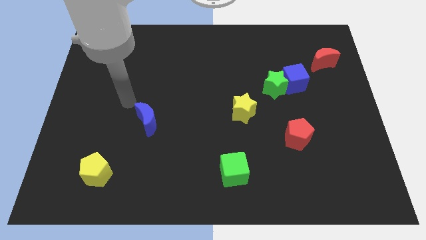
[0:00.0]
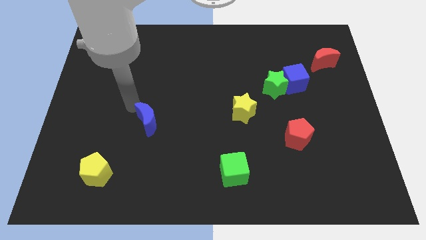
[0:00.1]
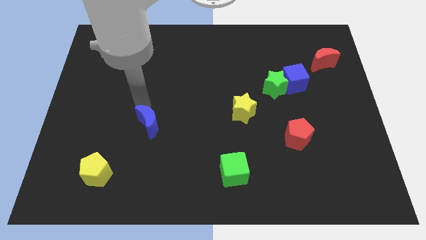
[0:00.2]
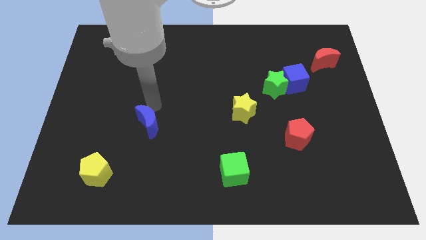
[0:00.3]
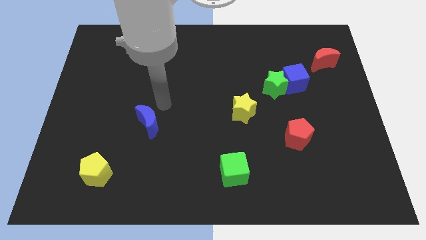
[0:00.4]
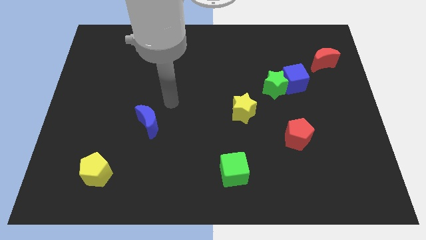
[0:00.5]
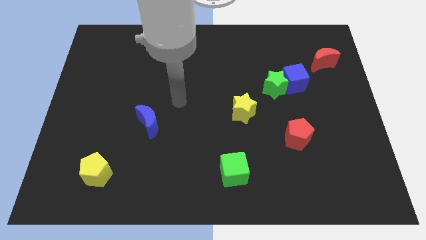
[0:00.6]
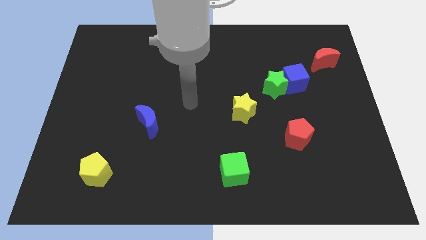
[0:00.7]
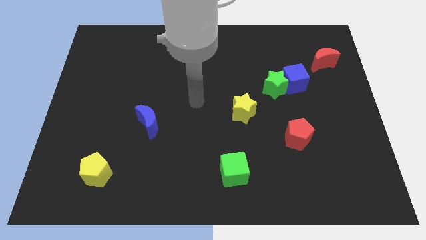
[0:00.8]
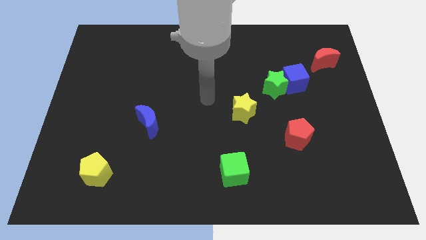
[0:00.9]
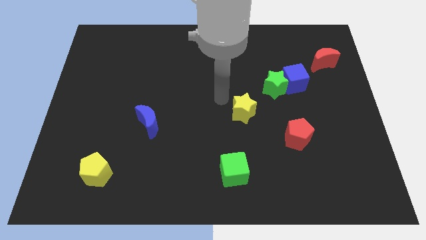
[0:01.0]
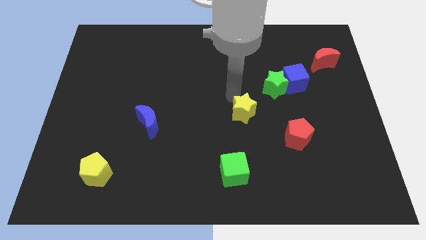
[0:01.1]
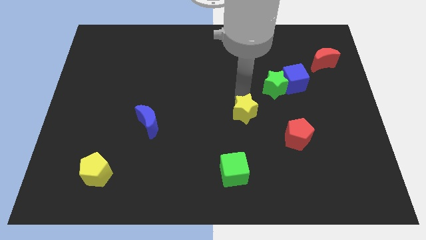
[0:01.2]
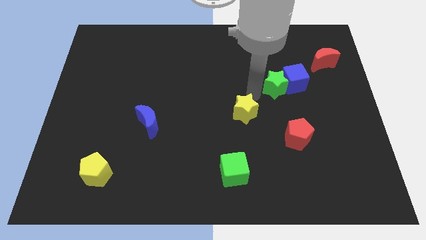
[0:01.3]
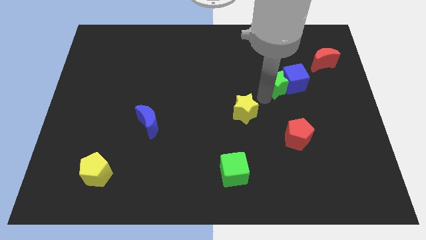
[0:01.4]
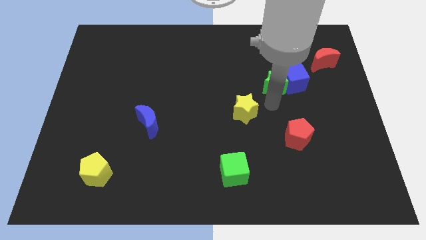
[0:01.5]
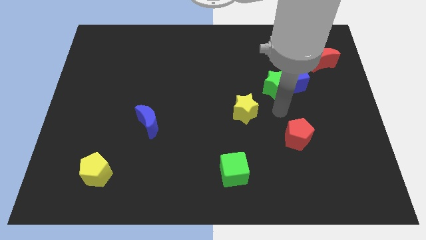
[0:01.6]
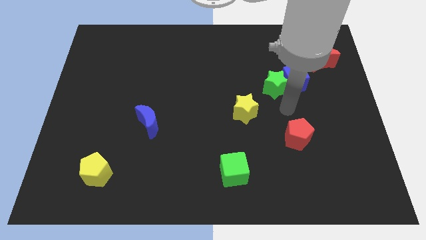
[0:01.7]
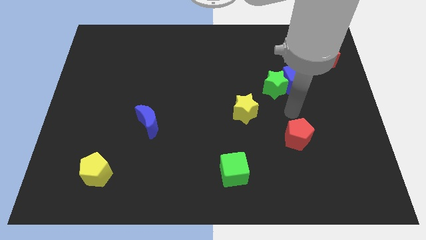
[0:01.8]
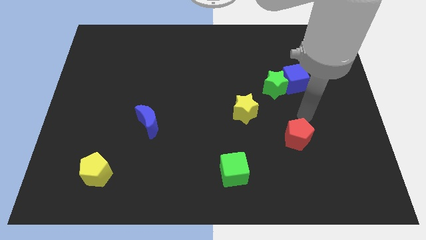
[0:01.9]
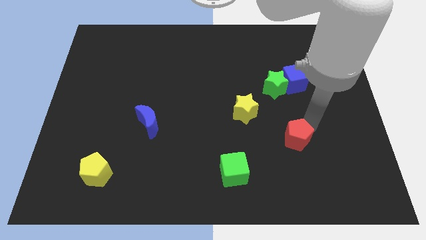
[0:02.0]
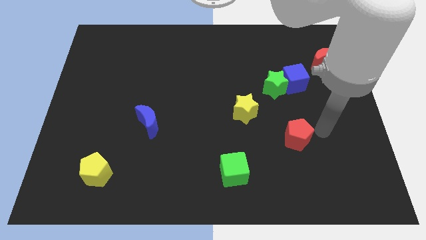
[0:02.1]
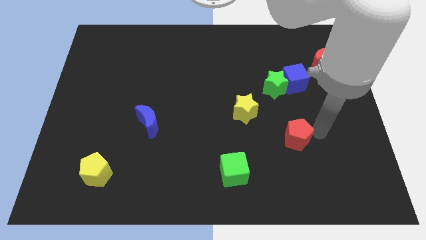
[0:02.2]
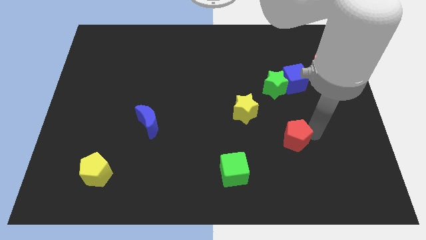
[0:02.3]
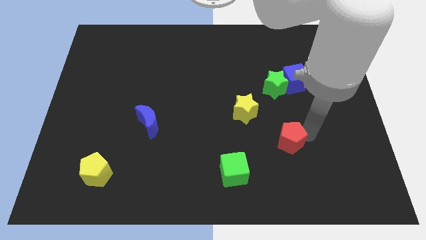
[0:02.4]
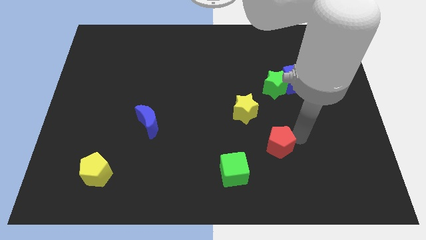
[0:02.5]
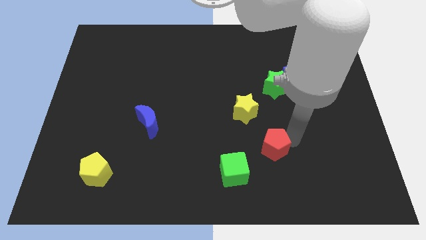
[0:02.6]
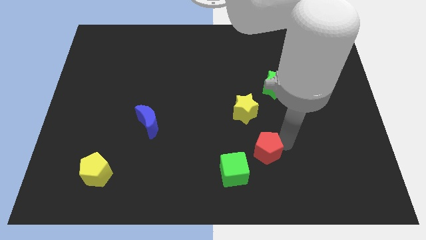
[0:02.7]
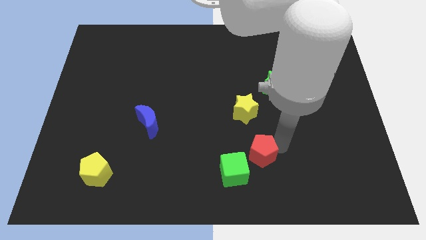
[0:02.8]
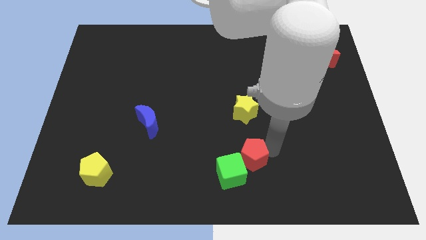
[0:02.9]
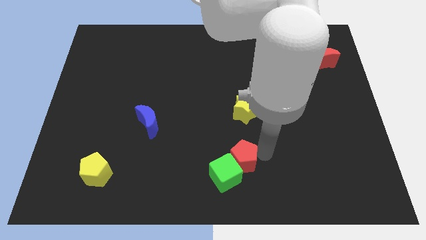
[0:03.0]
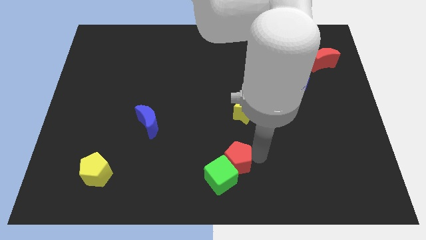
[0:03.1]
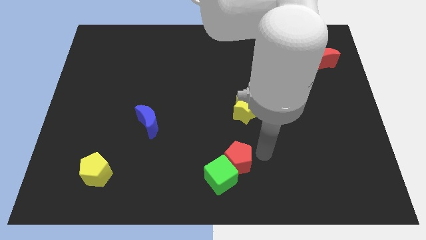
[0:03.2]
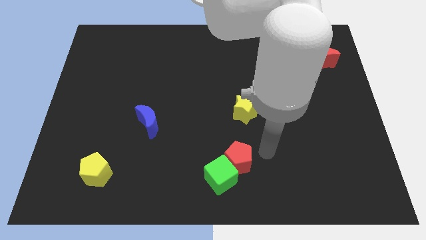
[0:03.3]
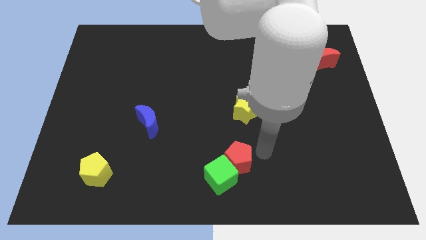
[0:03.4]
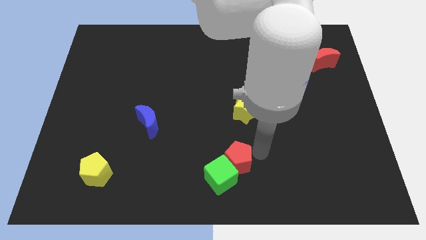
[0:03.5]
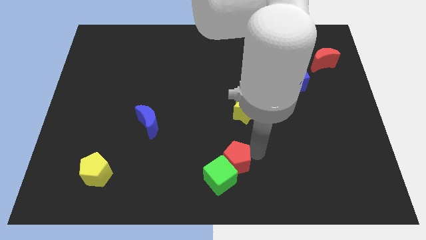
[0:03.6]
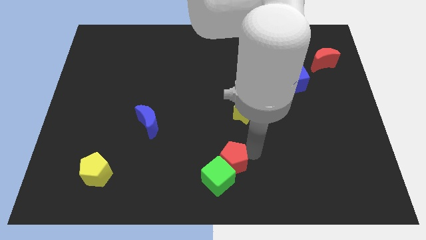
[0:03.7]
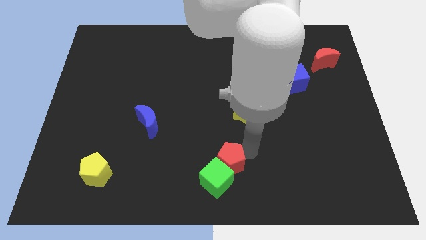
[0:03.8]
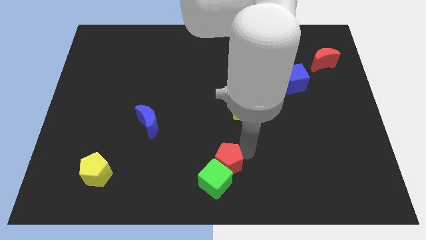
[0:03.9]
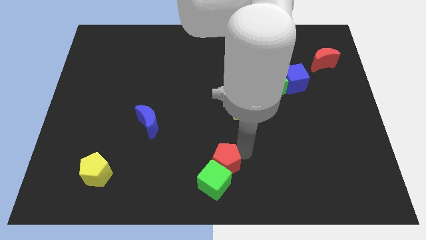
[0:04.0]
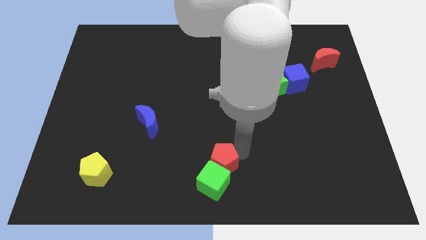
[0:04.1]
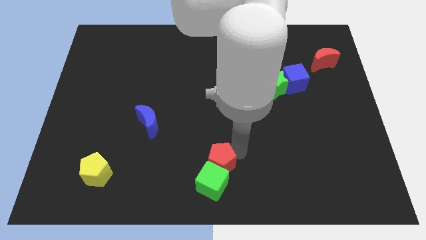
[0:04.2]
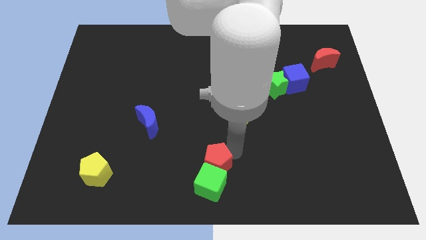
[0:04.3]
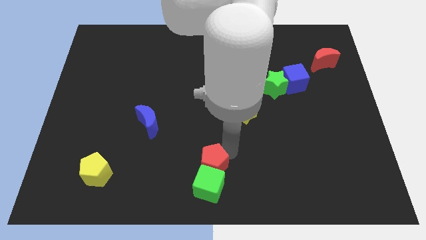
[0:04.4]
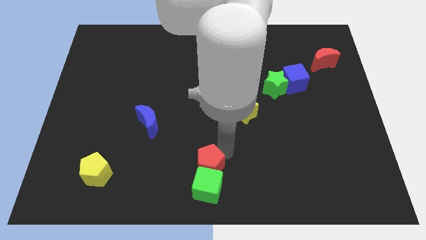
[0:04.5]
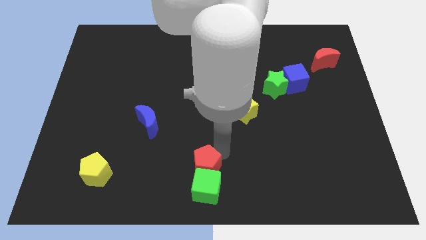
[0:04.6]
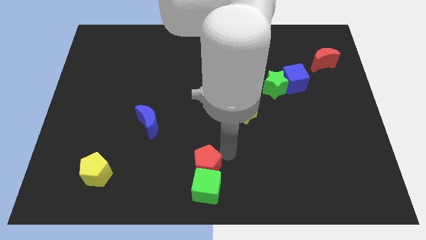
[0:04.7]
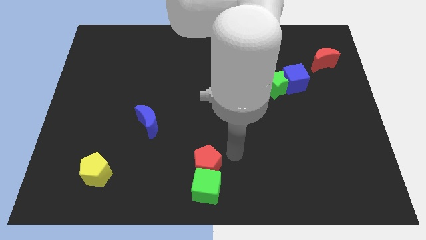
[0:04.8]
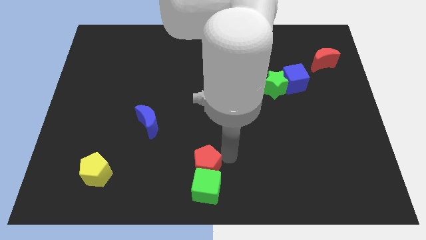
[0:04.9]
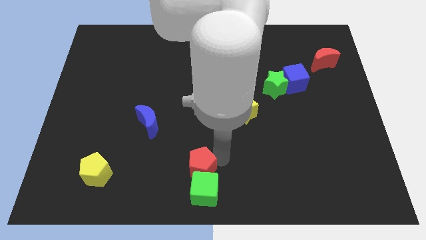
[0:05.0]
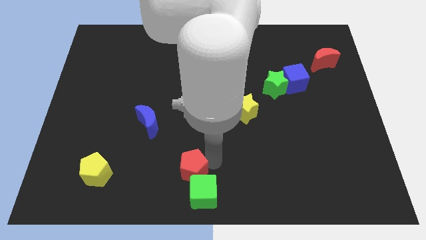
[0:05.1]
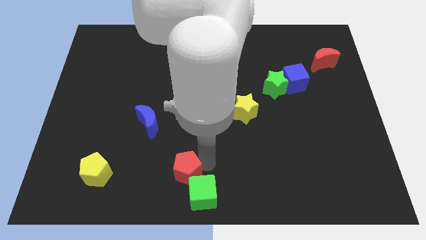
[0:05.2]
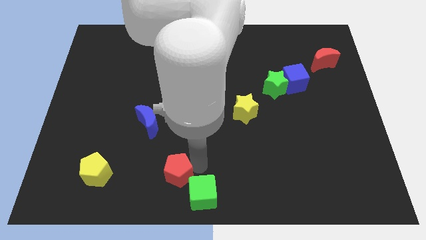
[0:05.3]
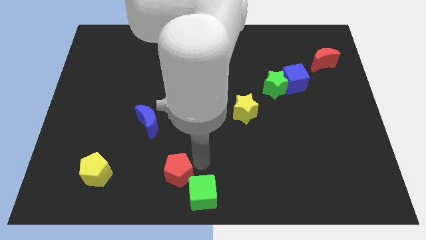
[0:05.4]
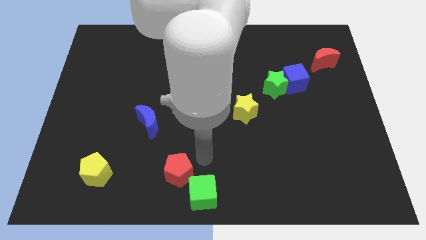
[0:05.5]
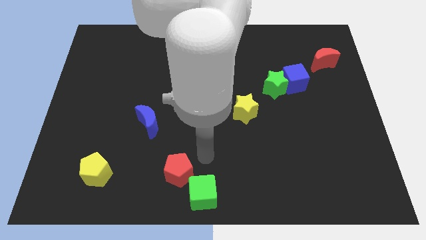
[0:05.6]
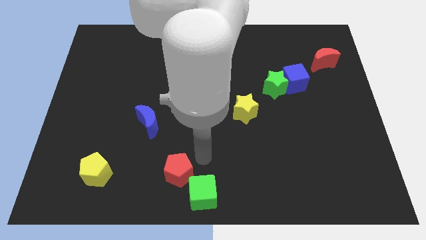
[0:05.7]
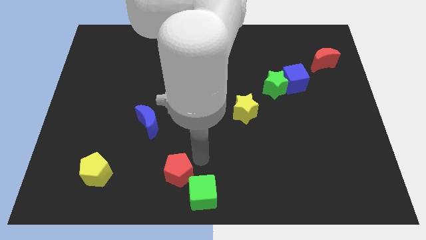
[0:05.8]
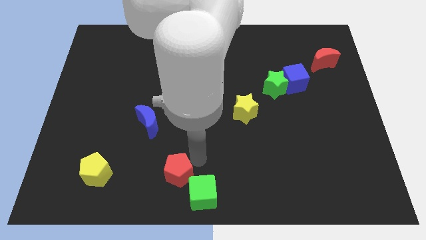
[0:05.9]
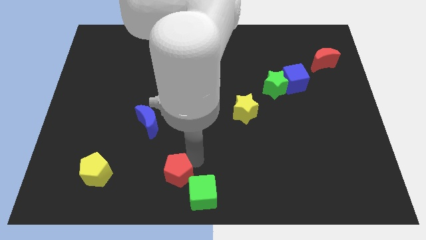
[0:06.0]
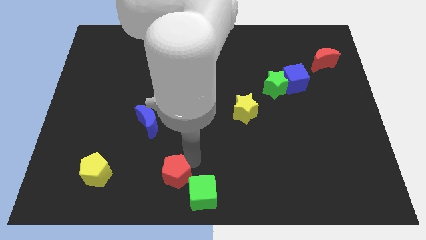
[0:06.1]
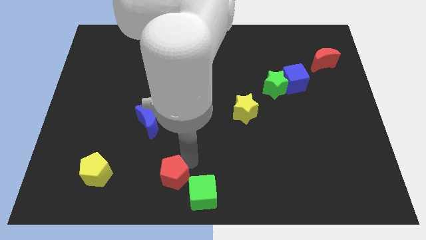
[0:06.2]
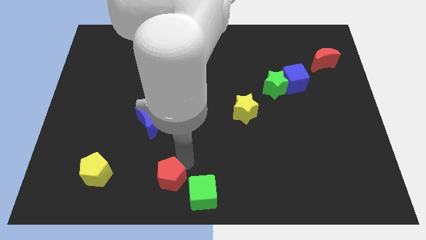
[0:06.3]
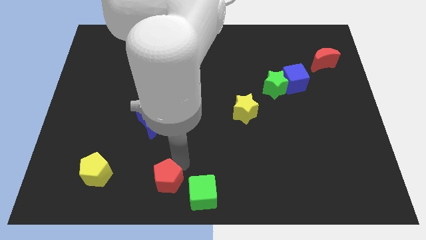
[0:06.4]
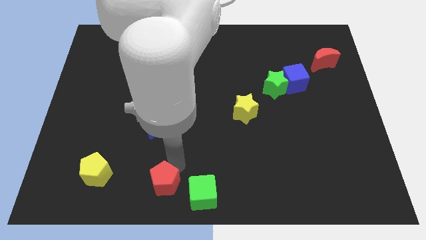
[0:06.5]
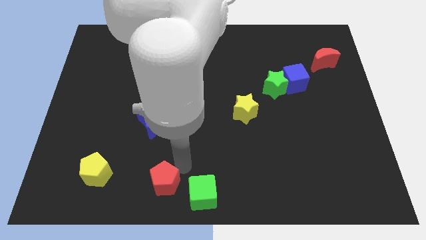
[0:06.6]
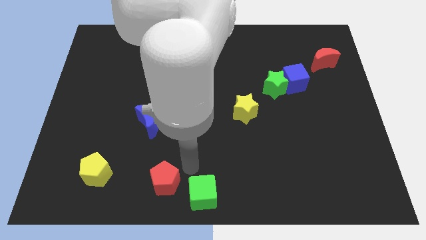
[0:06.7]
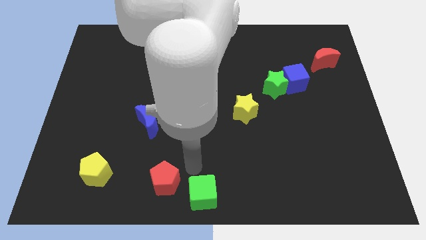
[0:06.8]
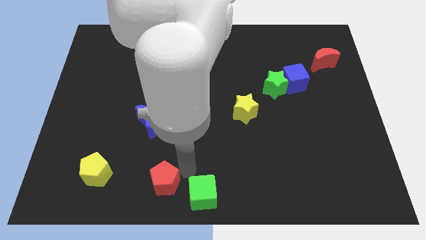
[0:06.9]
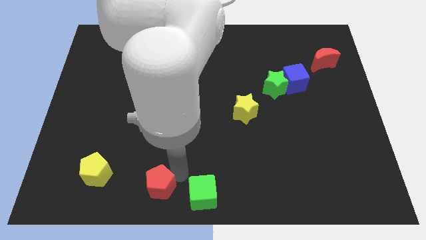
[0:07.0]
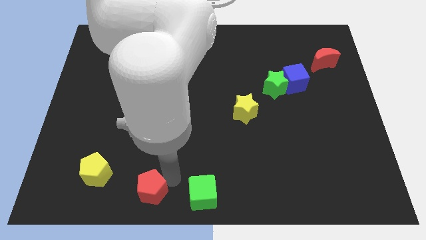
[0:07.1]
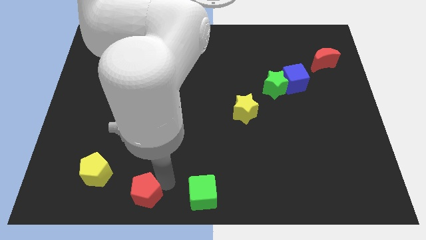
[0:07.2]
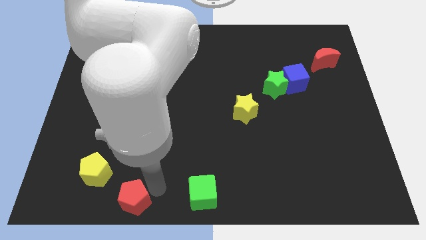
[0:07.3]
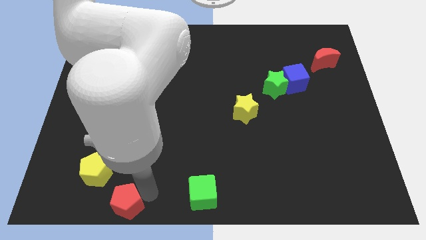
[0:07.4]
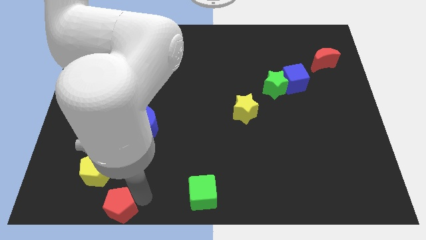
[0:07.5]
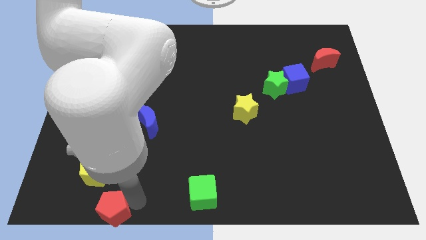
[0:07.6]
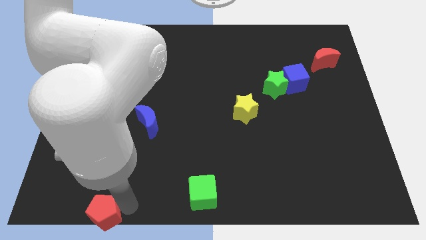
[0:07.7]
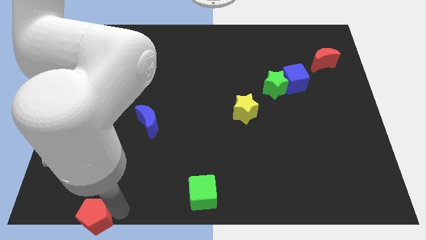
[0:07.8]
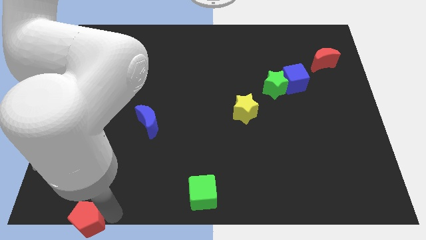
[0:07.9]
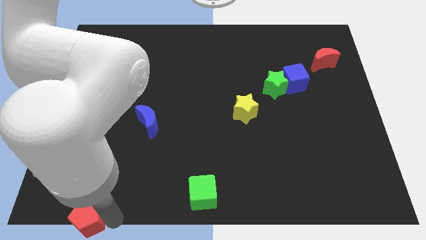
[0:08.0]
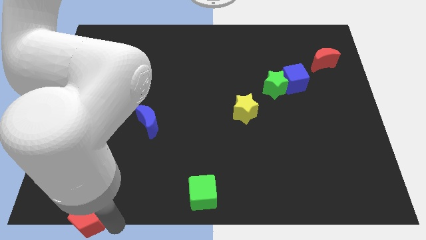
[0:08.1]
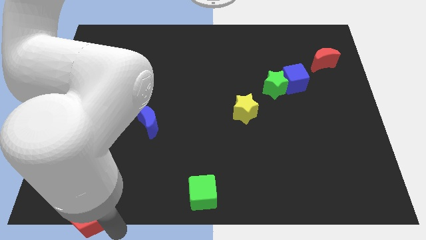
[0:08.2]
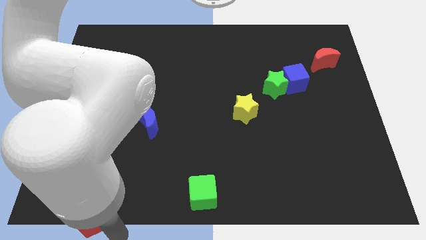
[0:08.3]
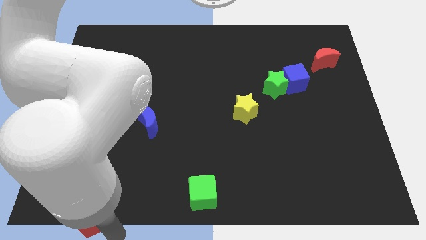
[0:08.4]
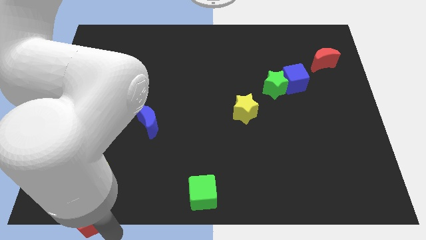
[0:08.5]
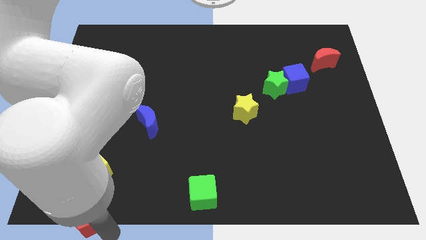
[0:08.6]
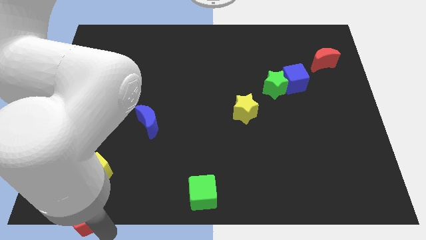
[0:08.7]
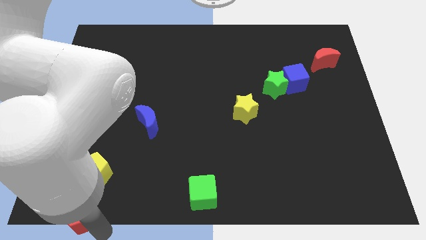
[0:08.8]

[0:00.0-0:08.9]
put the red pentagon to the bottom left
